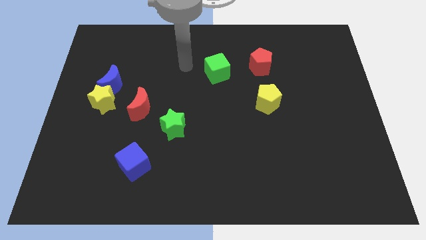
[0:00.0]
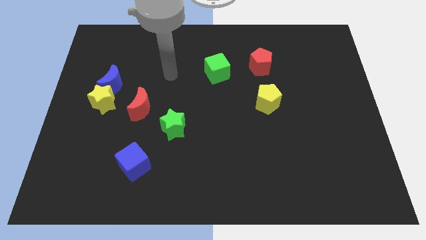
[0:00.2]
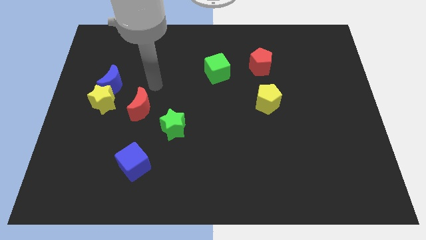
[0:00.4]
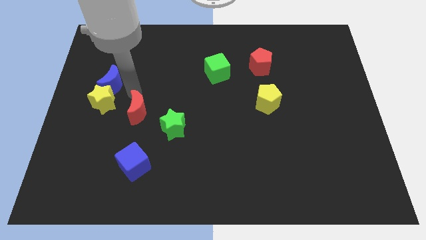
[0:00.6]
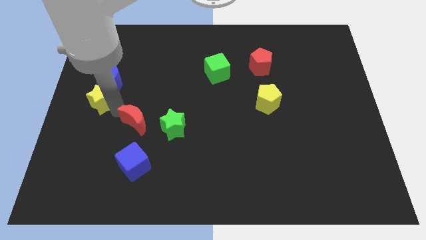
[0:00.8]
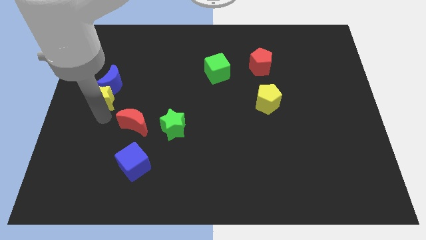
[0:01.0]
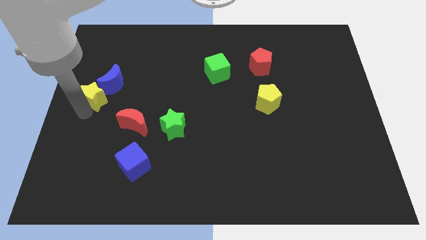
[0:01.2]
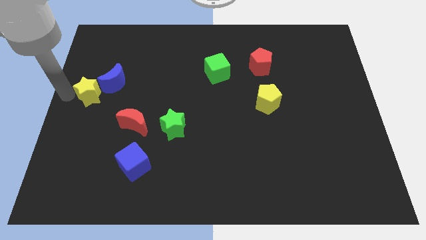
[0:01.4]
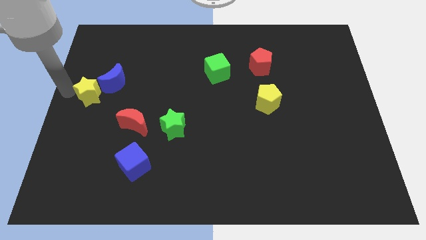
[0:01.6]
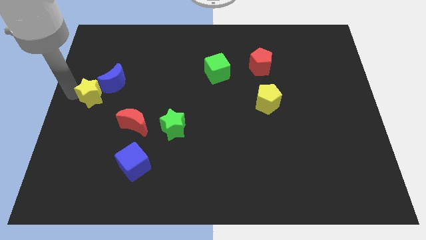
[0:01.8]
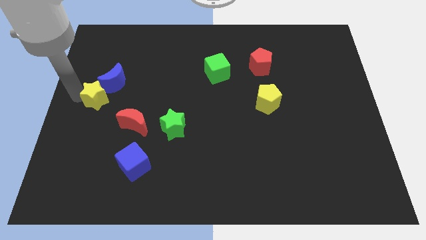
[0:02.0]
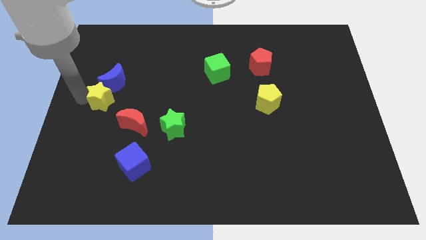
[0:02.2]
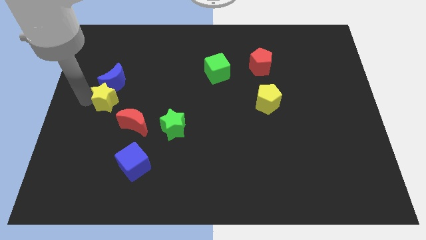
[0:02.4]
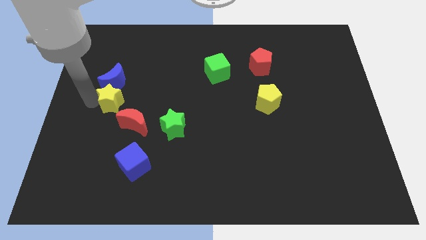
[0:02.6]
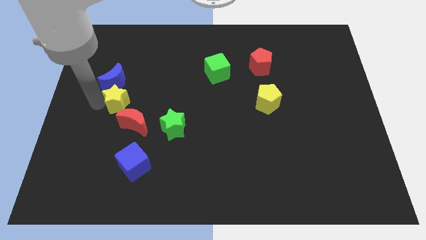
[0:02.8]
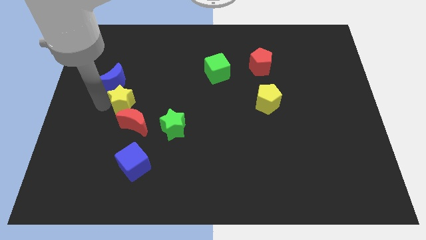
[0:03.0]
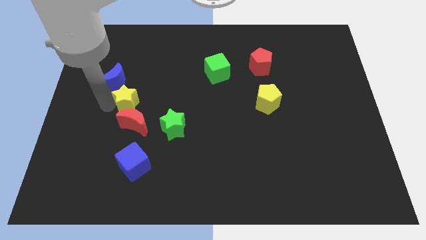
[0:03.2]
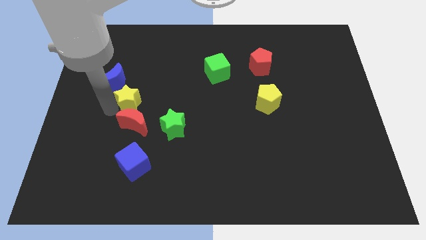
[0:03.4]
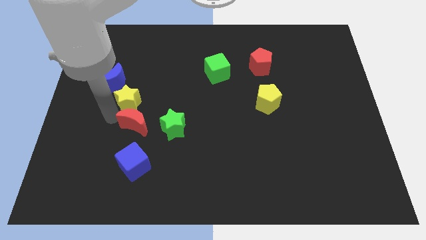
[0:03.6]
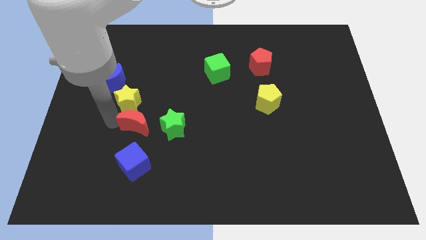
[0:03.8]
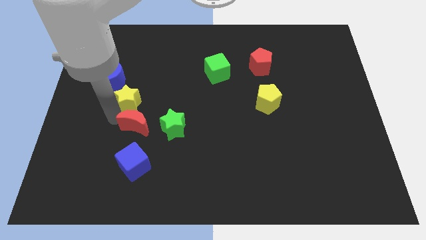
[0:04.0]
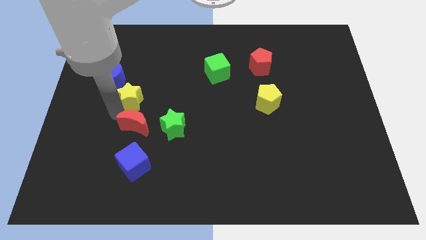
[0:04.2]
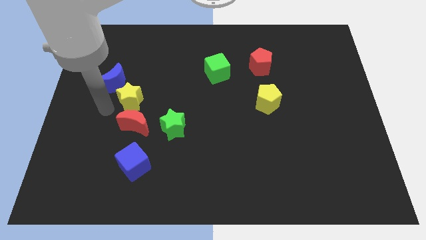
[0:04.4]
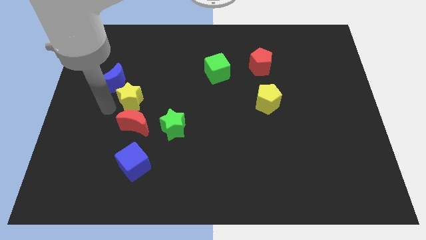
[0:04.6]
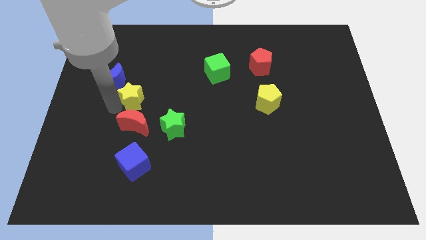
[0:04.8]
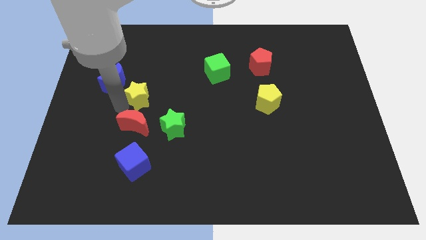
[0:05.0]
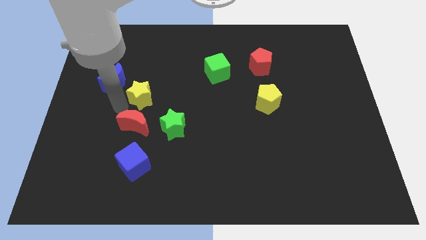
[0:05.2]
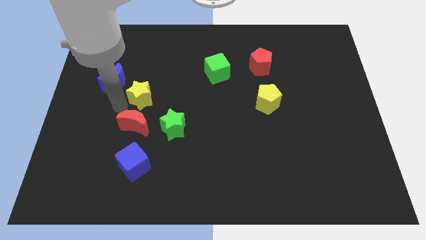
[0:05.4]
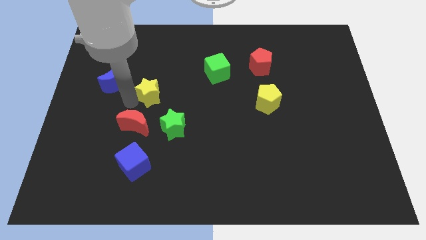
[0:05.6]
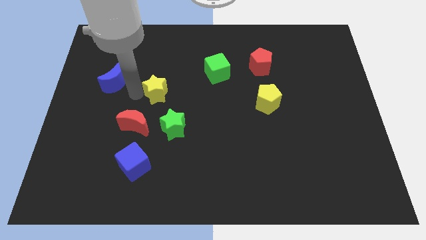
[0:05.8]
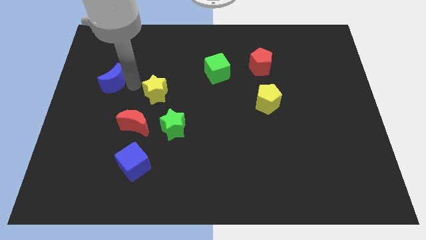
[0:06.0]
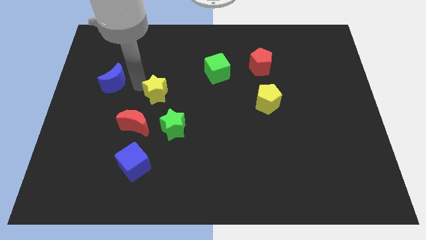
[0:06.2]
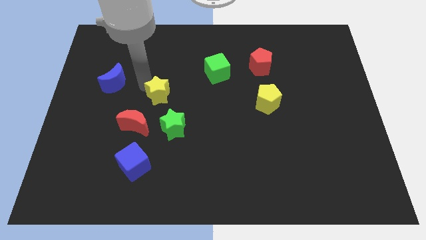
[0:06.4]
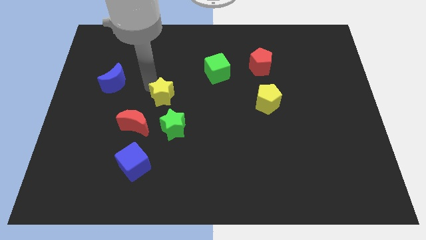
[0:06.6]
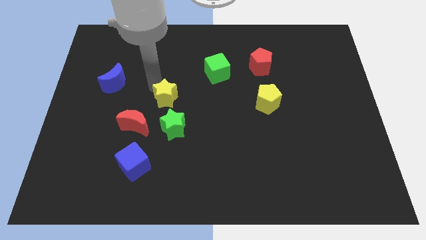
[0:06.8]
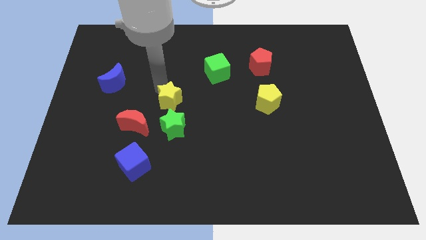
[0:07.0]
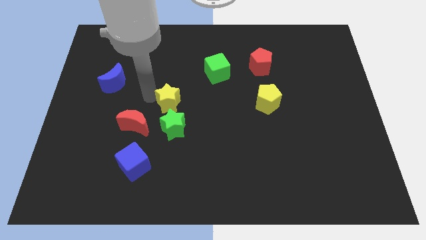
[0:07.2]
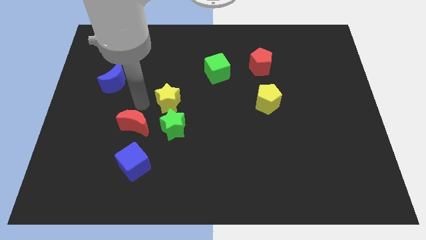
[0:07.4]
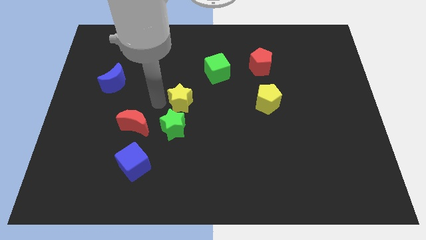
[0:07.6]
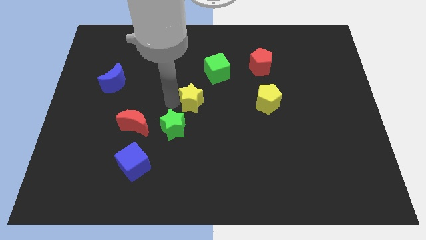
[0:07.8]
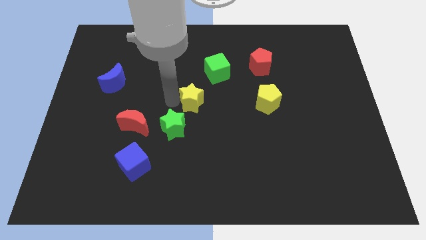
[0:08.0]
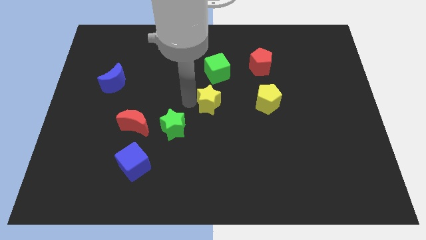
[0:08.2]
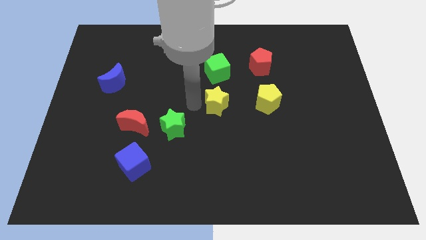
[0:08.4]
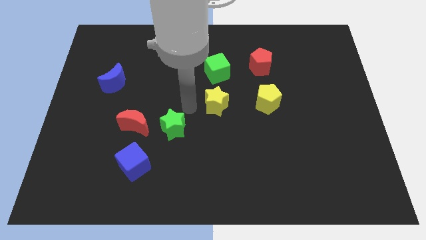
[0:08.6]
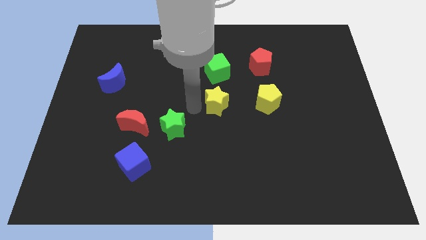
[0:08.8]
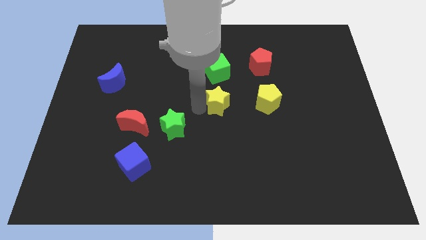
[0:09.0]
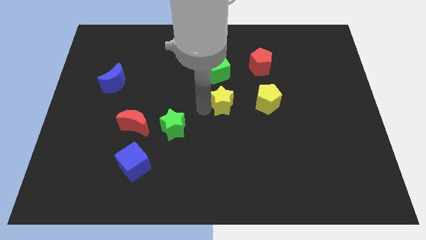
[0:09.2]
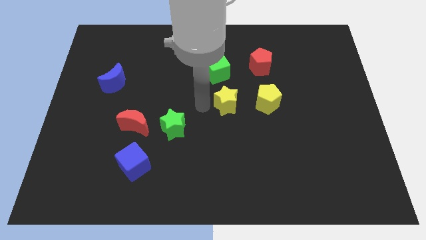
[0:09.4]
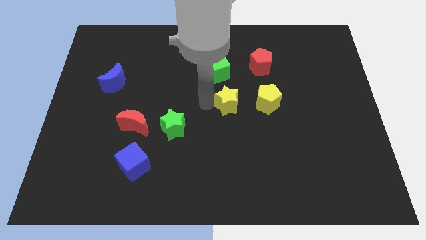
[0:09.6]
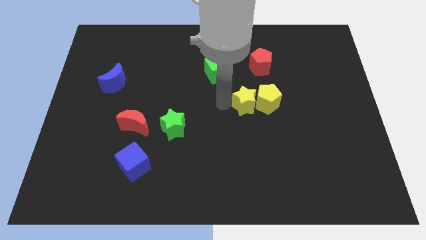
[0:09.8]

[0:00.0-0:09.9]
put the yellow star next to the yellow pentagon

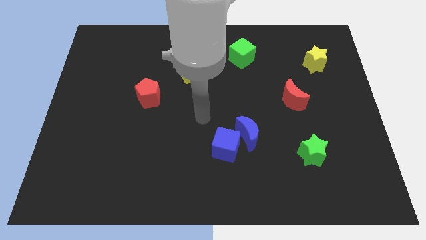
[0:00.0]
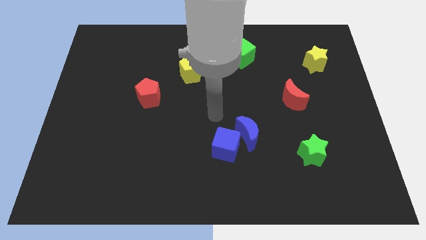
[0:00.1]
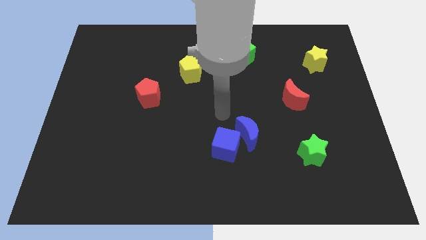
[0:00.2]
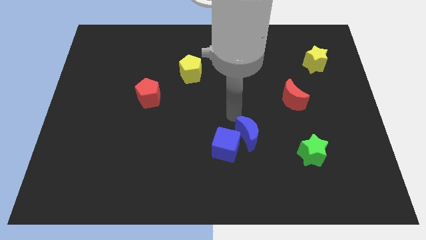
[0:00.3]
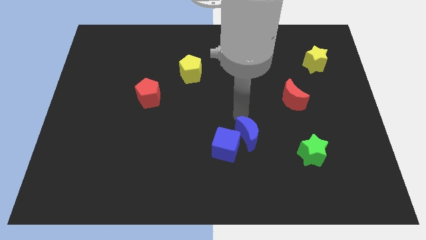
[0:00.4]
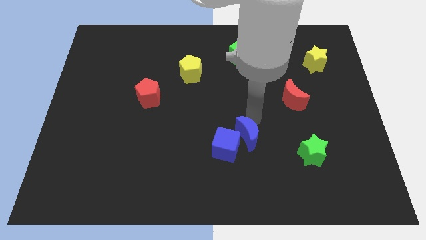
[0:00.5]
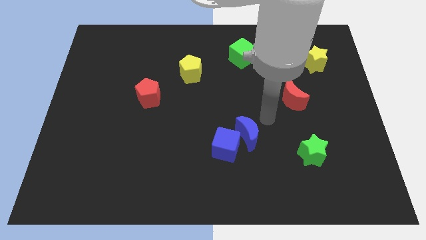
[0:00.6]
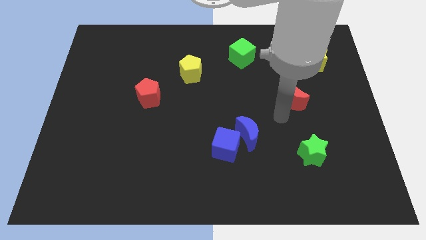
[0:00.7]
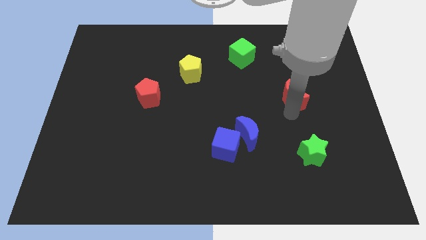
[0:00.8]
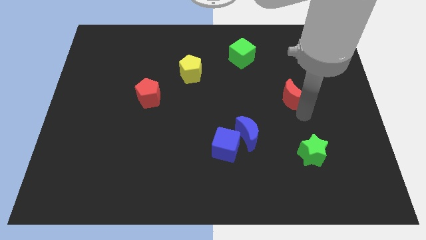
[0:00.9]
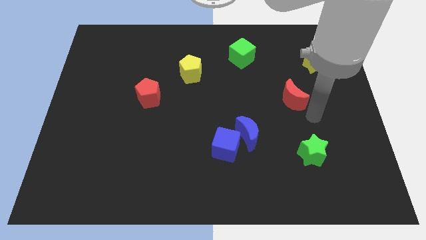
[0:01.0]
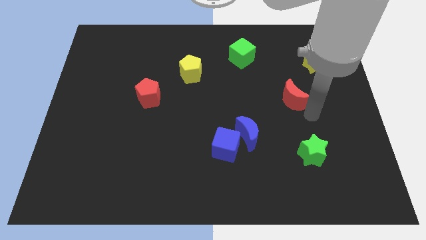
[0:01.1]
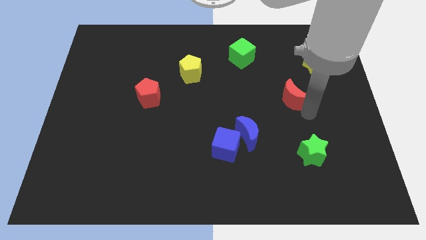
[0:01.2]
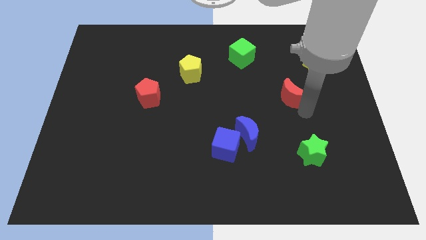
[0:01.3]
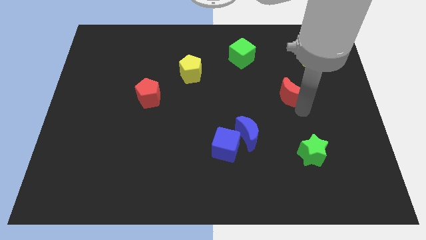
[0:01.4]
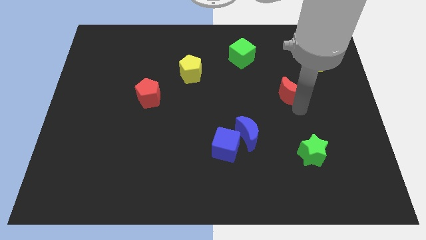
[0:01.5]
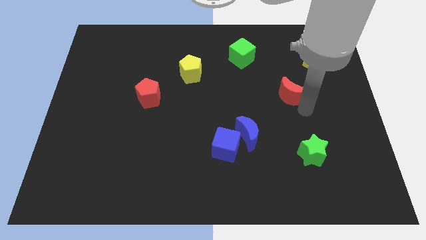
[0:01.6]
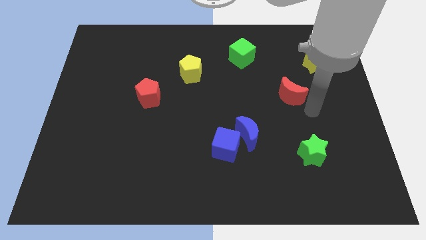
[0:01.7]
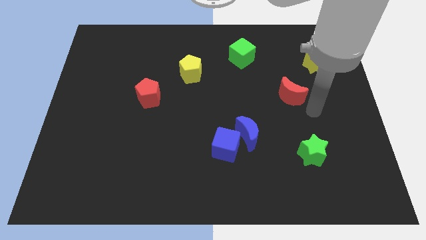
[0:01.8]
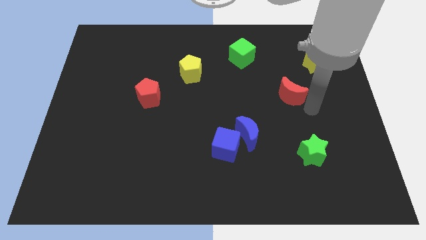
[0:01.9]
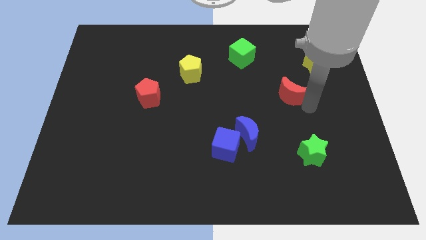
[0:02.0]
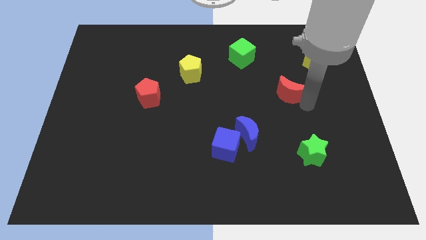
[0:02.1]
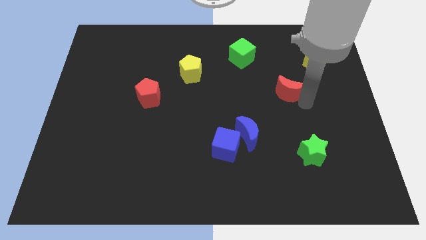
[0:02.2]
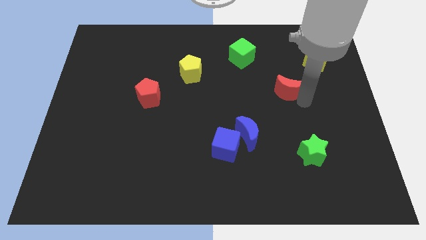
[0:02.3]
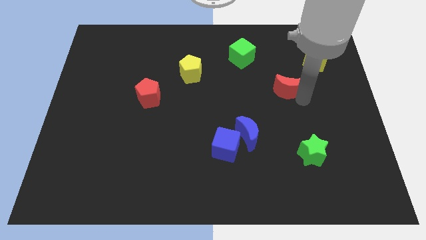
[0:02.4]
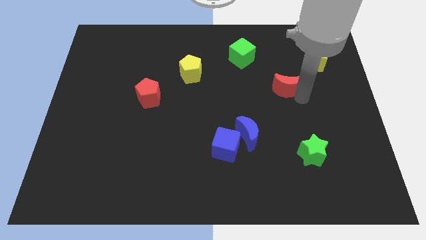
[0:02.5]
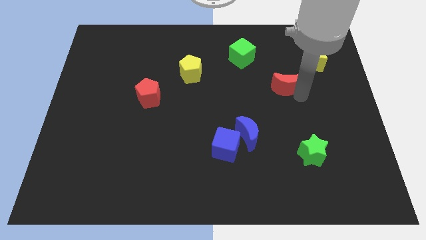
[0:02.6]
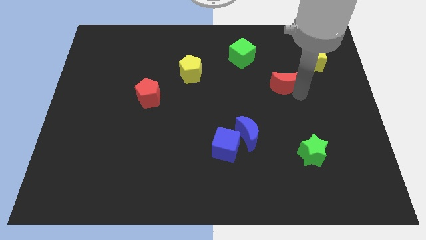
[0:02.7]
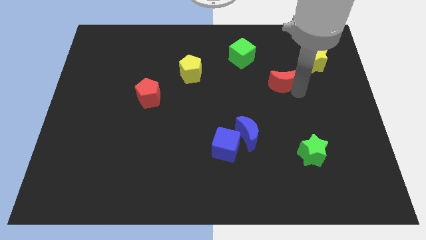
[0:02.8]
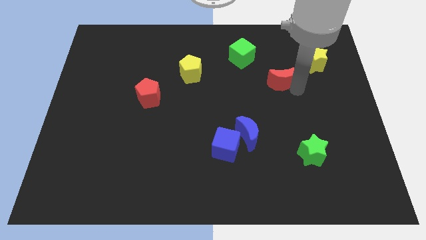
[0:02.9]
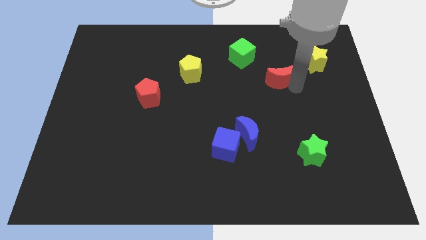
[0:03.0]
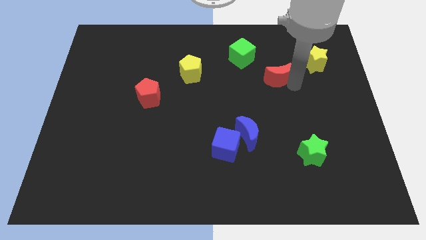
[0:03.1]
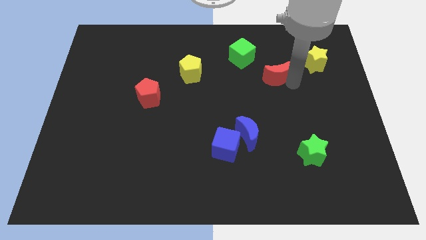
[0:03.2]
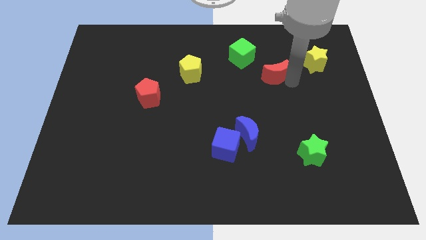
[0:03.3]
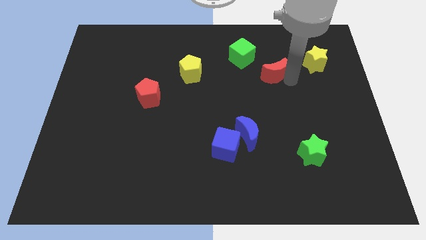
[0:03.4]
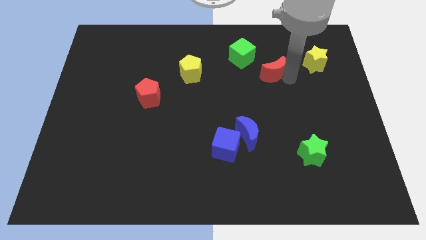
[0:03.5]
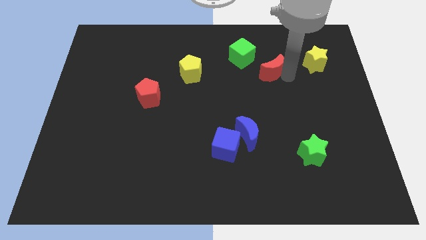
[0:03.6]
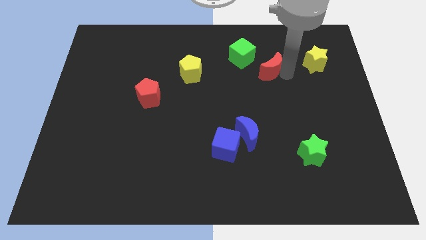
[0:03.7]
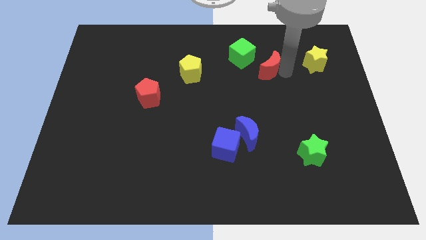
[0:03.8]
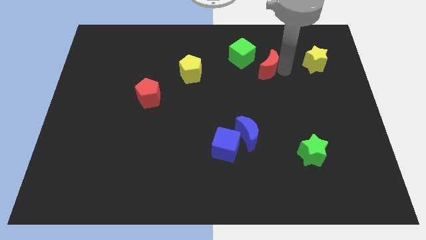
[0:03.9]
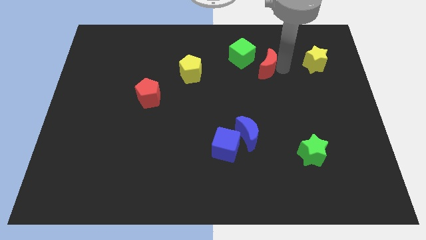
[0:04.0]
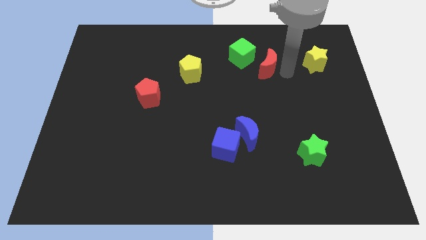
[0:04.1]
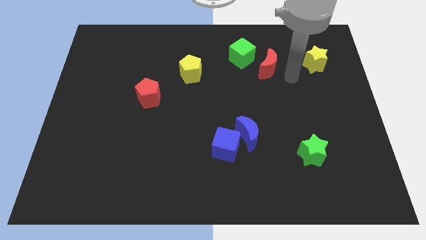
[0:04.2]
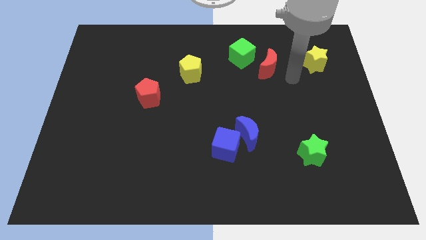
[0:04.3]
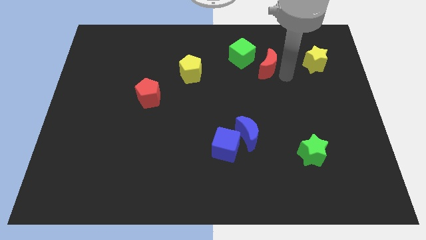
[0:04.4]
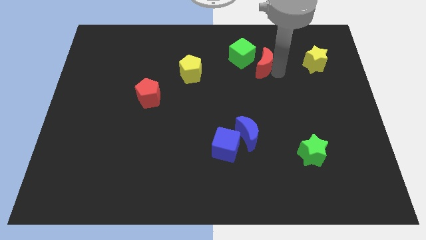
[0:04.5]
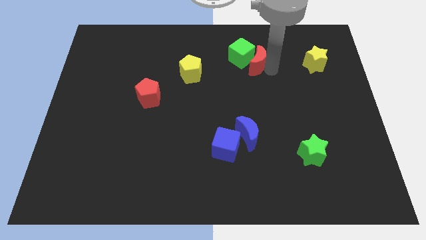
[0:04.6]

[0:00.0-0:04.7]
push the red moon next to the green cube
